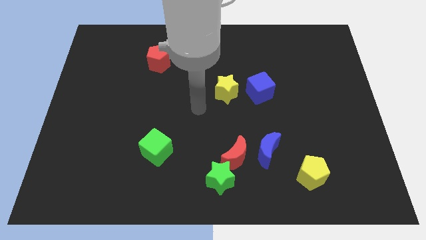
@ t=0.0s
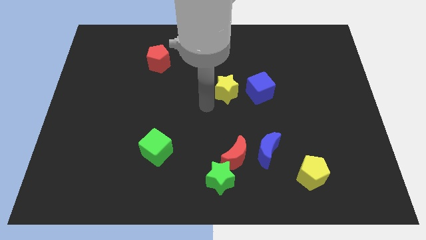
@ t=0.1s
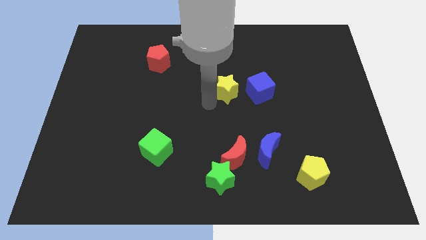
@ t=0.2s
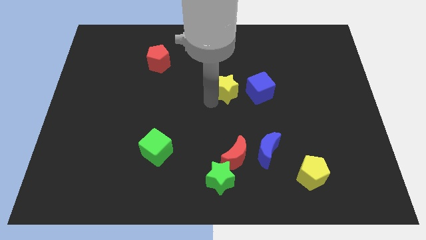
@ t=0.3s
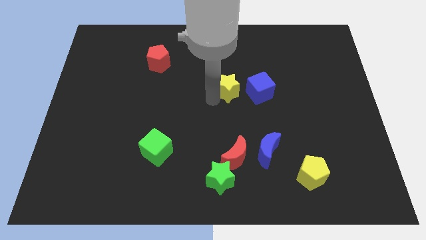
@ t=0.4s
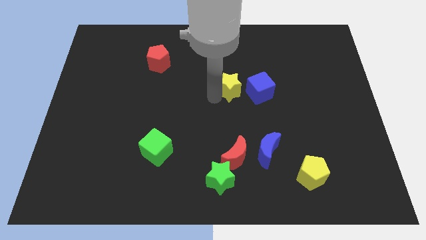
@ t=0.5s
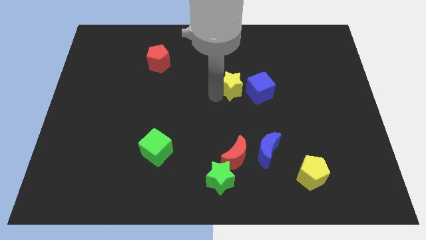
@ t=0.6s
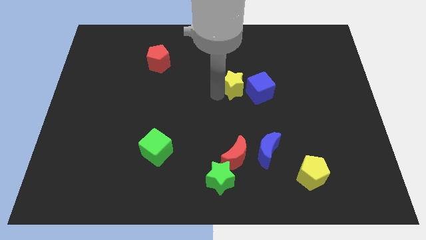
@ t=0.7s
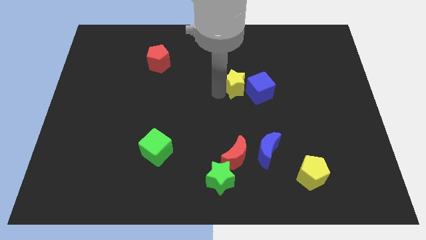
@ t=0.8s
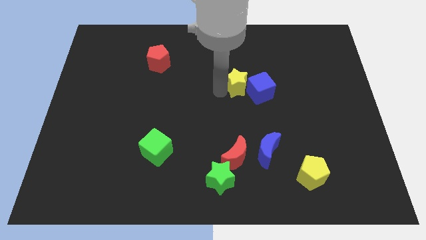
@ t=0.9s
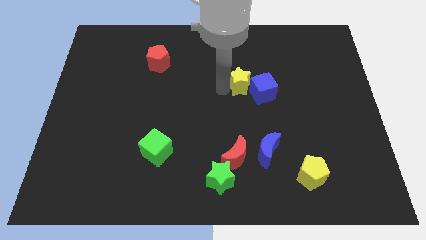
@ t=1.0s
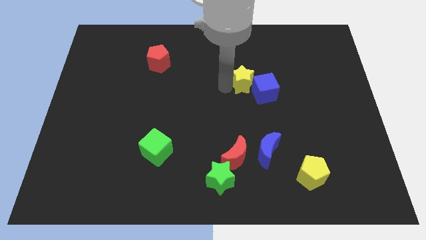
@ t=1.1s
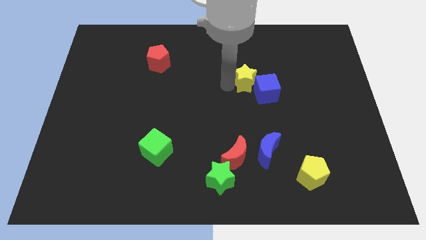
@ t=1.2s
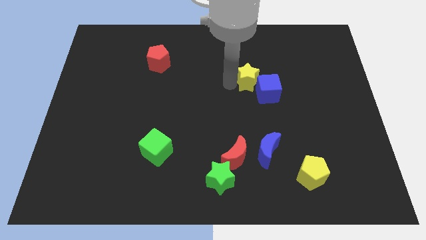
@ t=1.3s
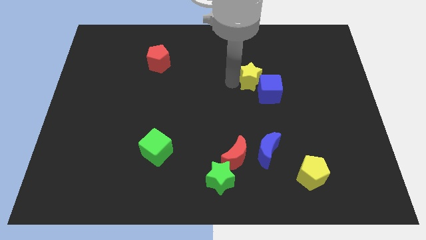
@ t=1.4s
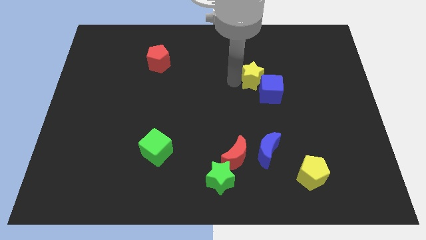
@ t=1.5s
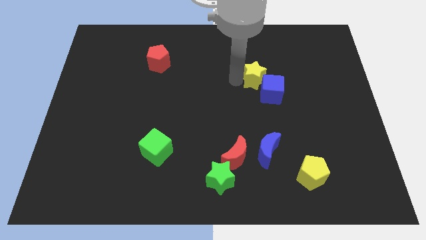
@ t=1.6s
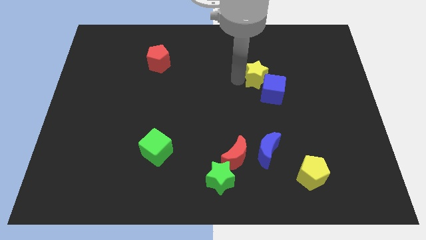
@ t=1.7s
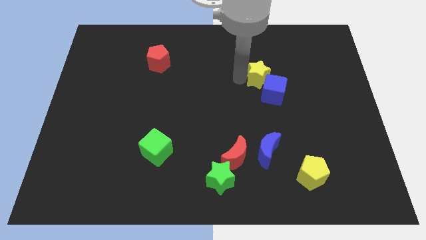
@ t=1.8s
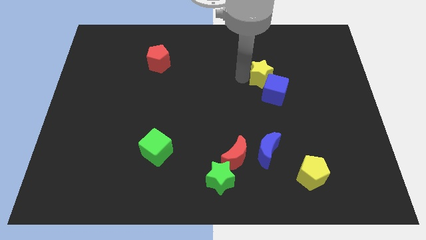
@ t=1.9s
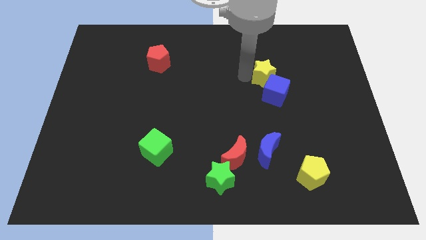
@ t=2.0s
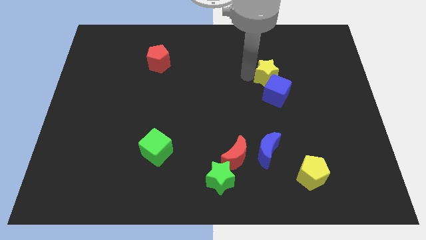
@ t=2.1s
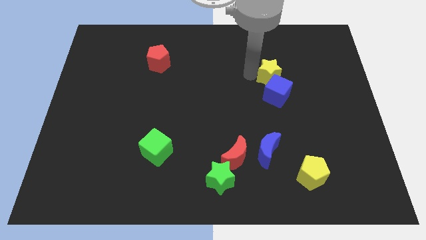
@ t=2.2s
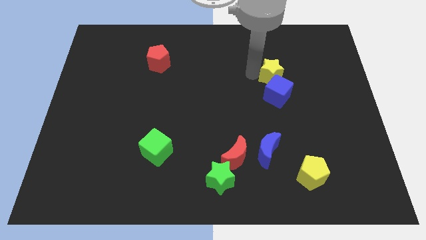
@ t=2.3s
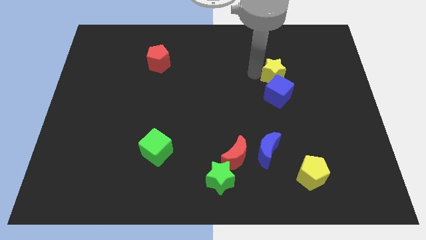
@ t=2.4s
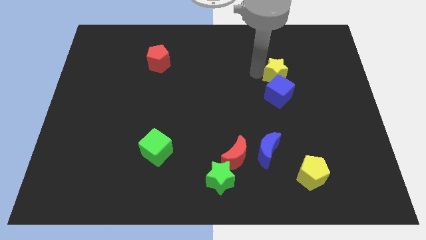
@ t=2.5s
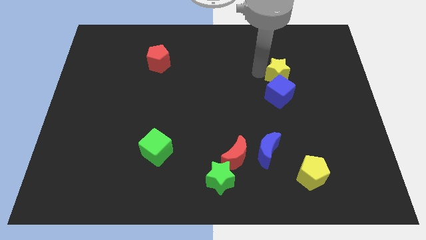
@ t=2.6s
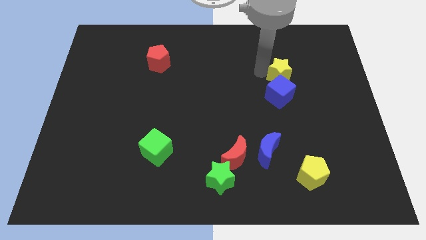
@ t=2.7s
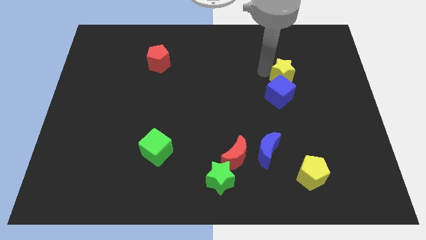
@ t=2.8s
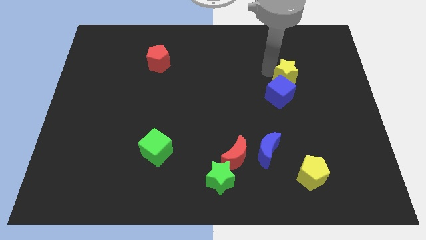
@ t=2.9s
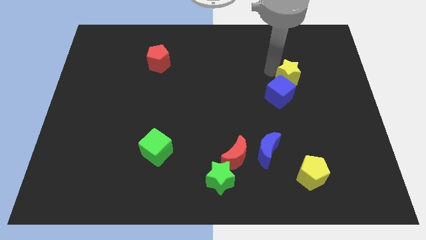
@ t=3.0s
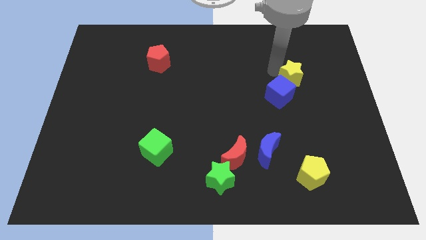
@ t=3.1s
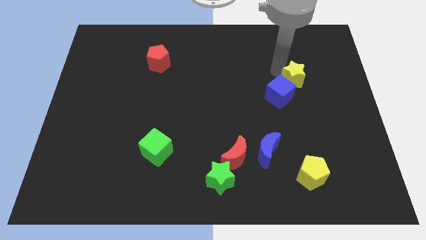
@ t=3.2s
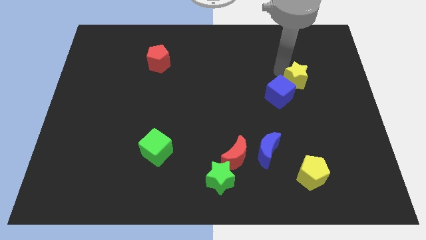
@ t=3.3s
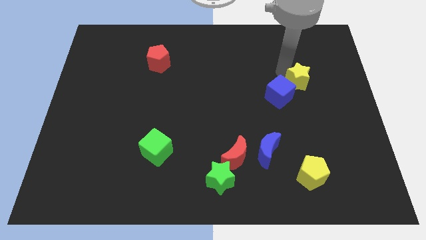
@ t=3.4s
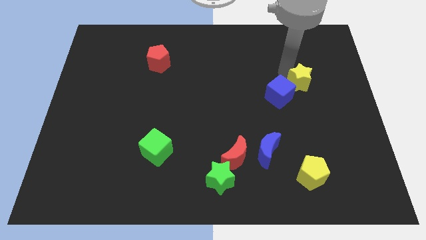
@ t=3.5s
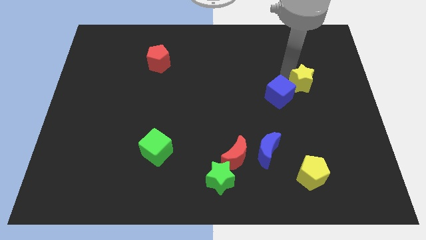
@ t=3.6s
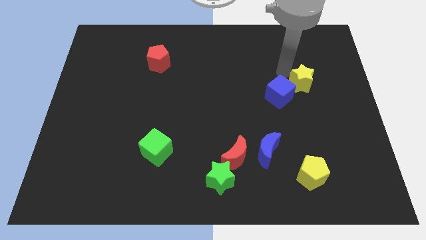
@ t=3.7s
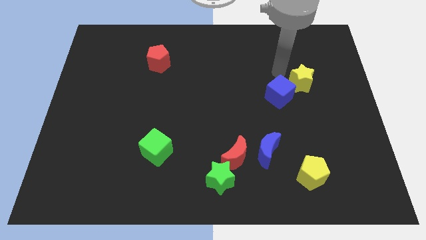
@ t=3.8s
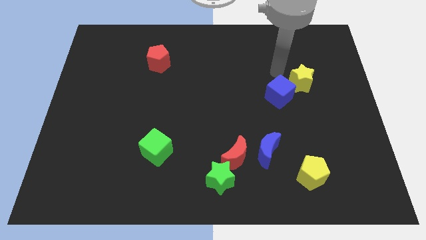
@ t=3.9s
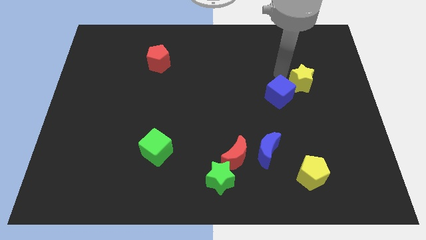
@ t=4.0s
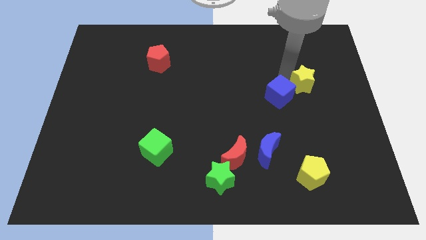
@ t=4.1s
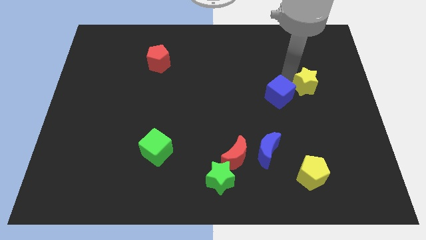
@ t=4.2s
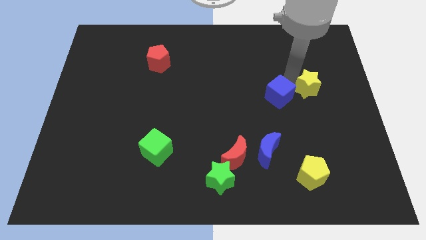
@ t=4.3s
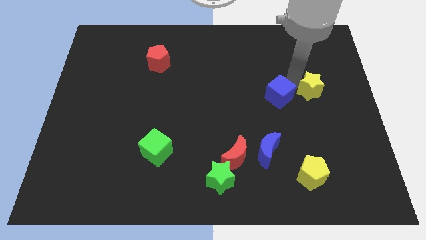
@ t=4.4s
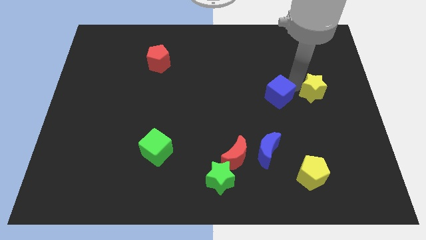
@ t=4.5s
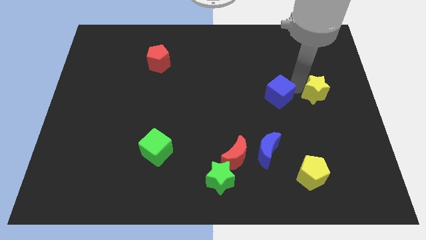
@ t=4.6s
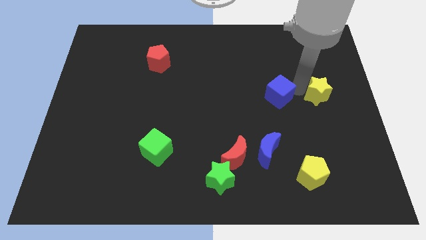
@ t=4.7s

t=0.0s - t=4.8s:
move the yellow star to the center right
